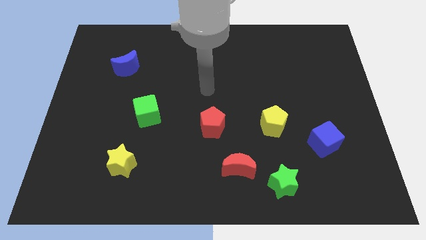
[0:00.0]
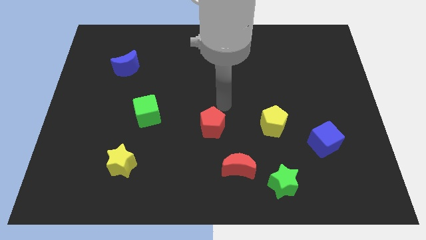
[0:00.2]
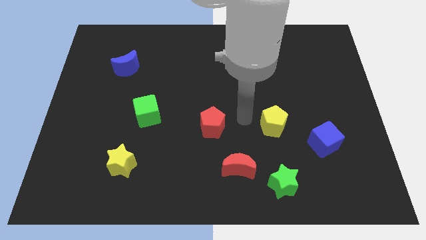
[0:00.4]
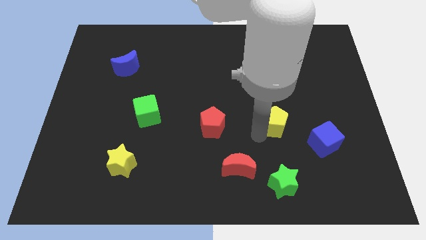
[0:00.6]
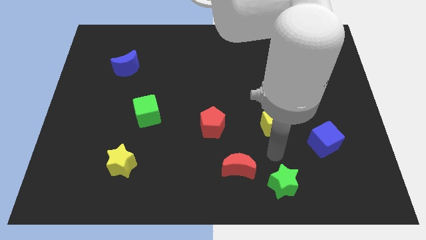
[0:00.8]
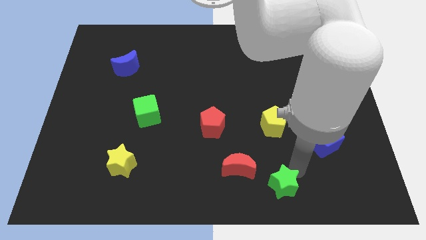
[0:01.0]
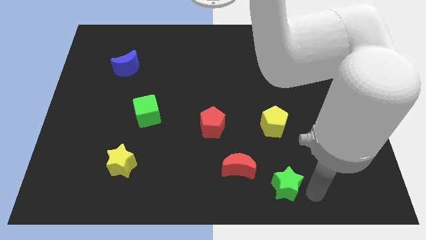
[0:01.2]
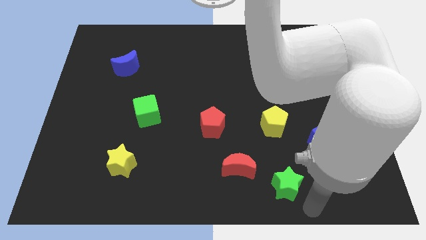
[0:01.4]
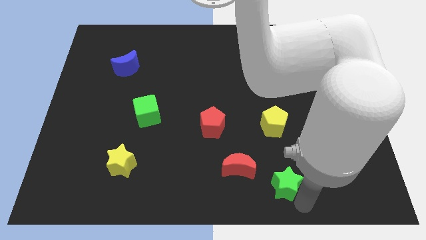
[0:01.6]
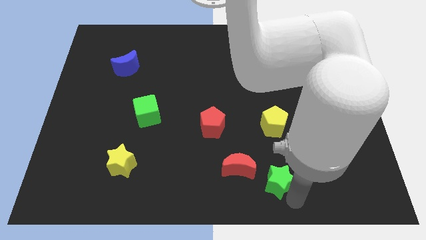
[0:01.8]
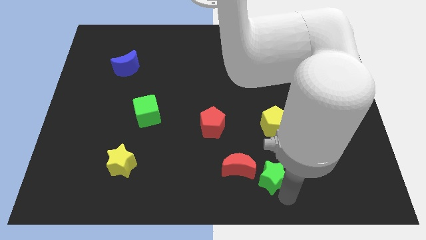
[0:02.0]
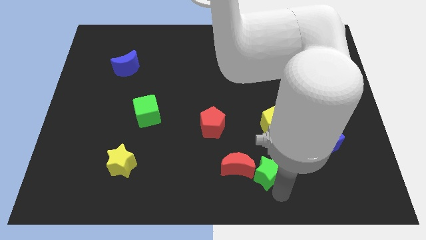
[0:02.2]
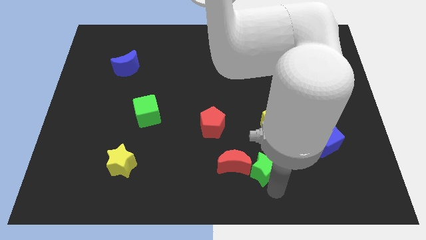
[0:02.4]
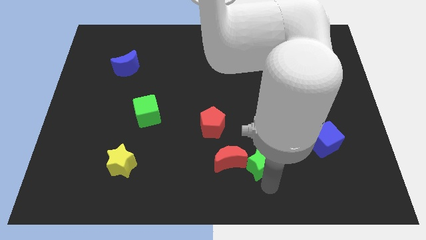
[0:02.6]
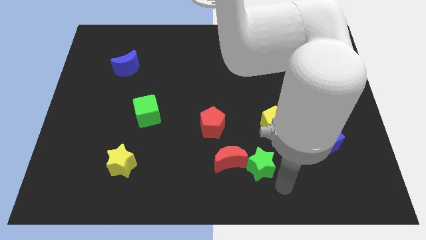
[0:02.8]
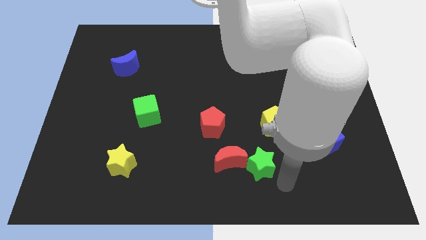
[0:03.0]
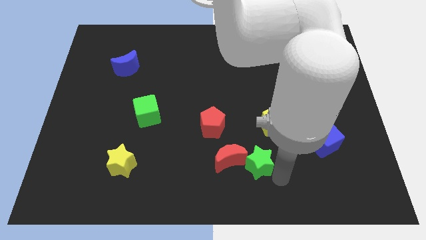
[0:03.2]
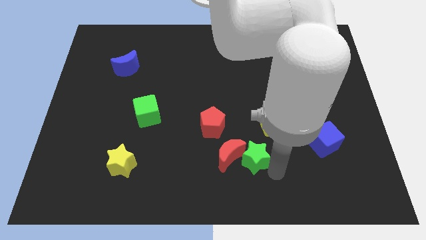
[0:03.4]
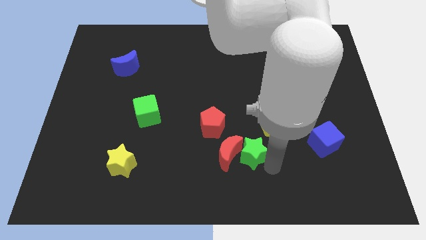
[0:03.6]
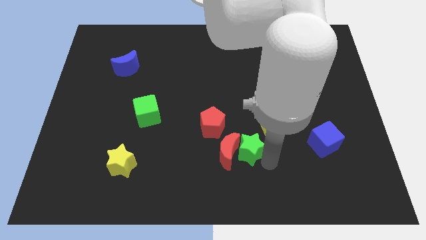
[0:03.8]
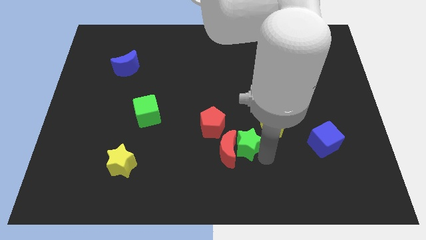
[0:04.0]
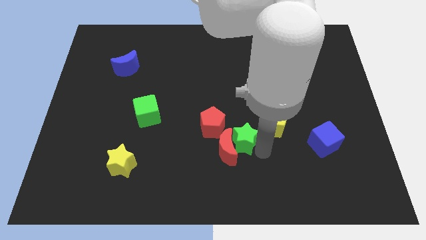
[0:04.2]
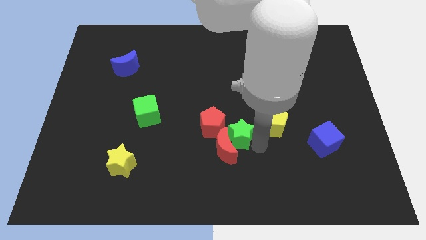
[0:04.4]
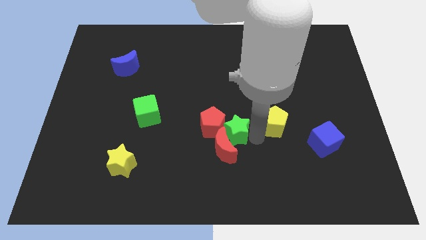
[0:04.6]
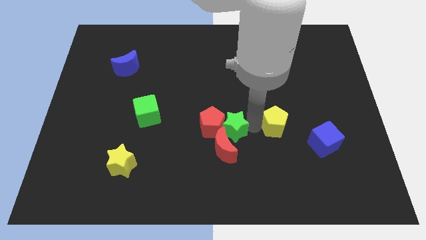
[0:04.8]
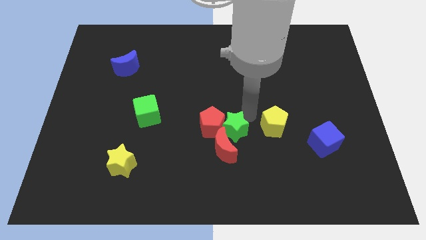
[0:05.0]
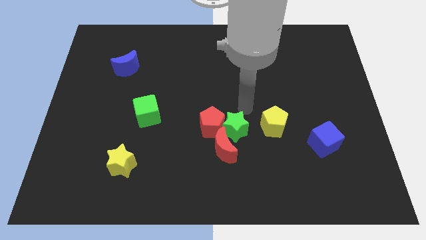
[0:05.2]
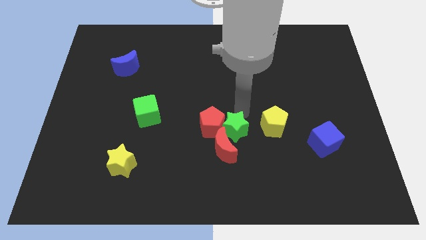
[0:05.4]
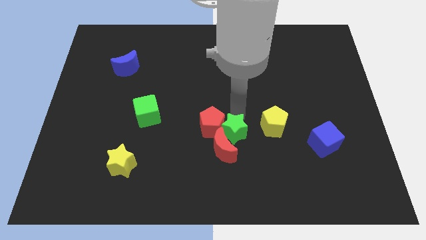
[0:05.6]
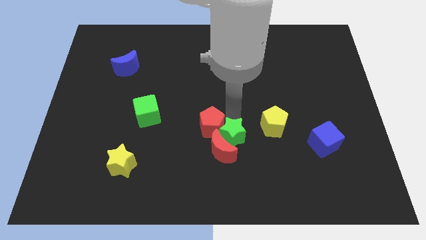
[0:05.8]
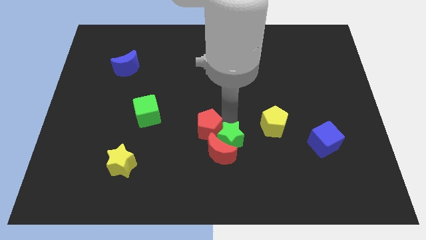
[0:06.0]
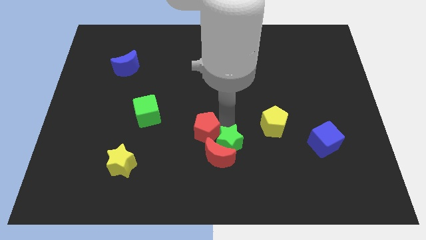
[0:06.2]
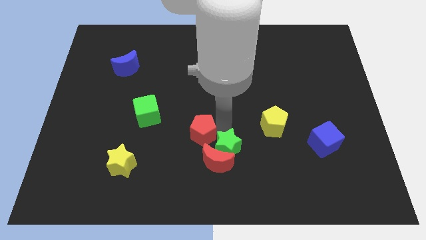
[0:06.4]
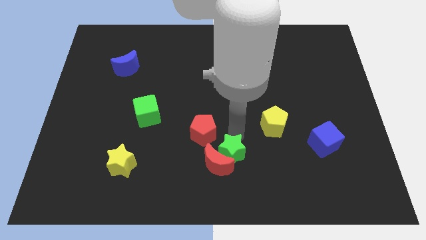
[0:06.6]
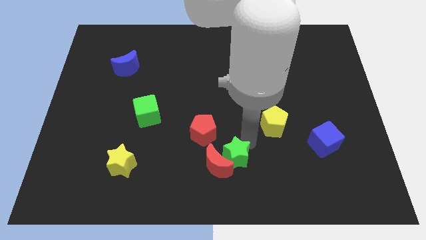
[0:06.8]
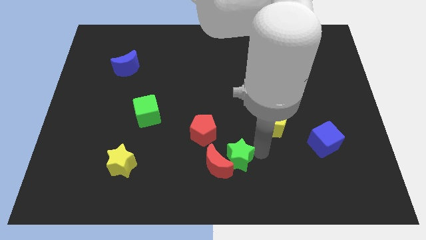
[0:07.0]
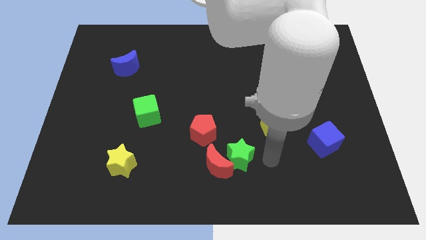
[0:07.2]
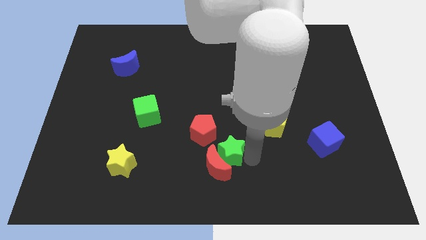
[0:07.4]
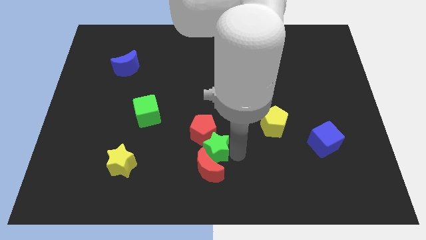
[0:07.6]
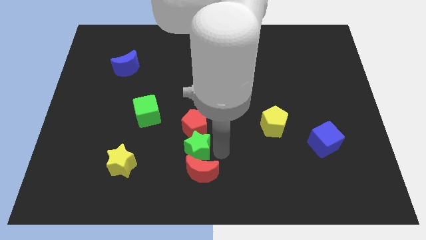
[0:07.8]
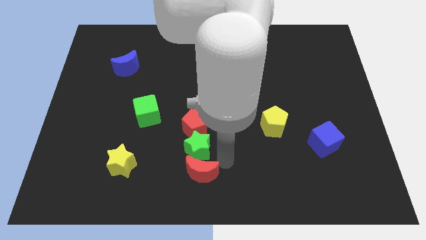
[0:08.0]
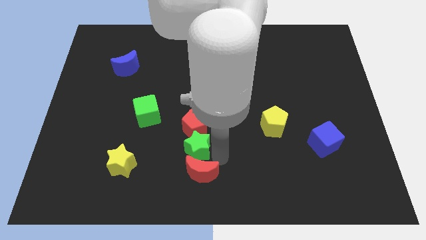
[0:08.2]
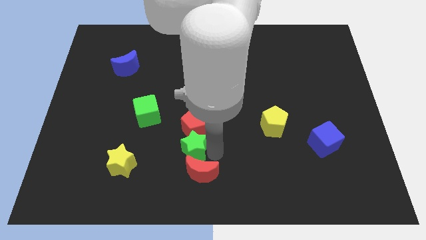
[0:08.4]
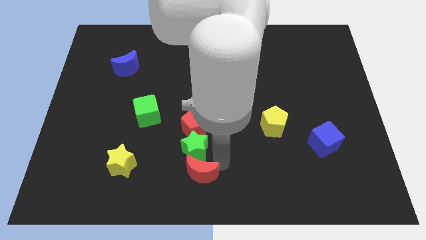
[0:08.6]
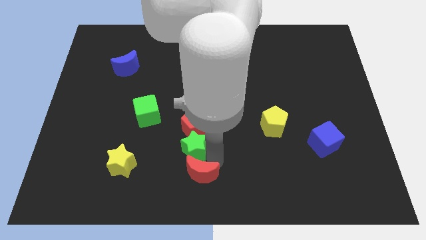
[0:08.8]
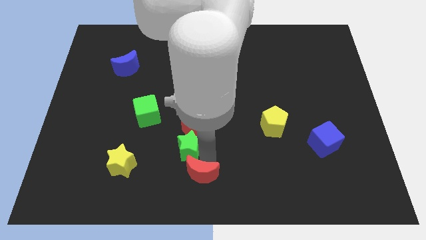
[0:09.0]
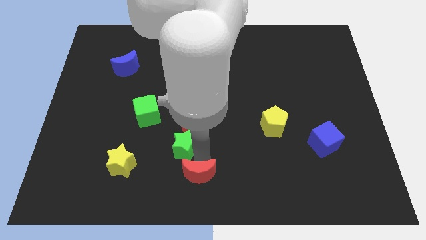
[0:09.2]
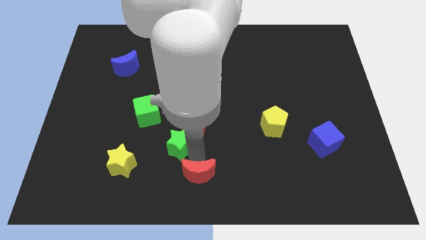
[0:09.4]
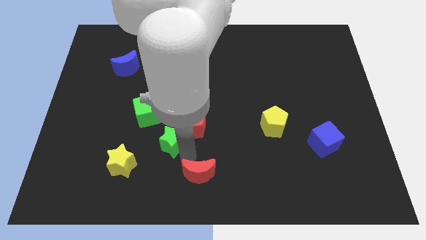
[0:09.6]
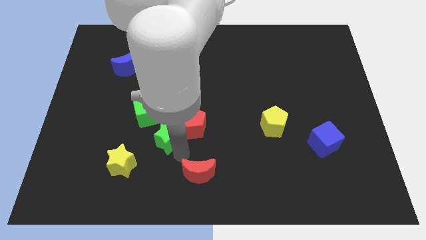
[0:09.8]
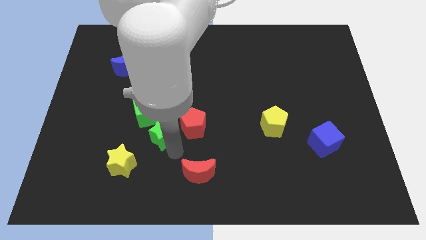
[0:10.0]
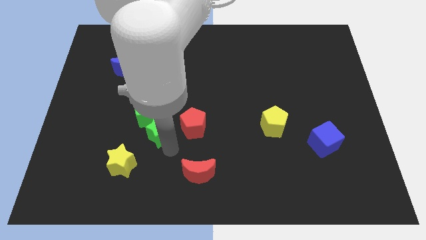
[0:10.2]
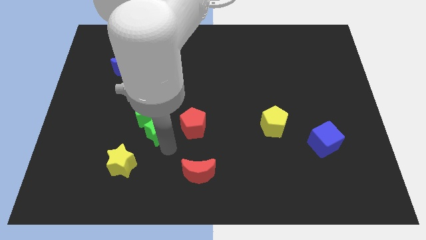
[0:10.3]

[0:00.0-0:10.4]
slide the green star next to the green cube

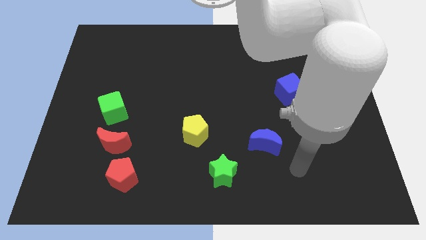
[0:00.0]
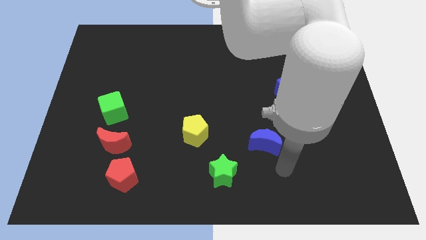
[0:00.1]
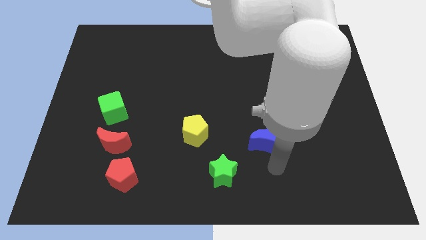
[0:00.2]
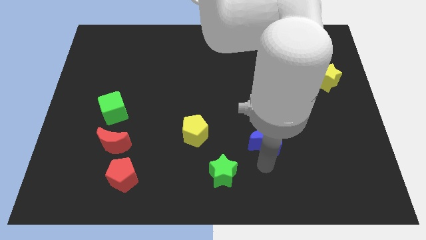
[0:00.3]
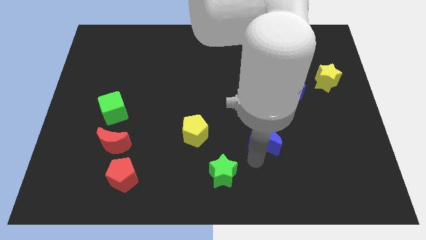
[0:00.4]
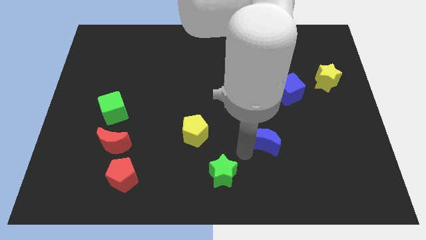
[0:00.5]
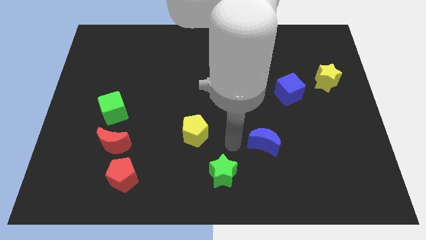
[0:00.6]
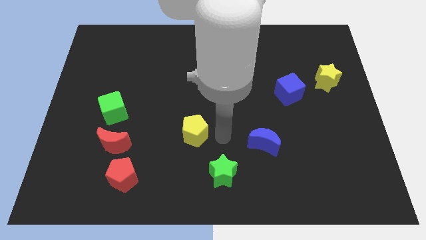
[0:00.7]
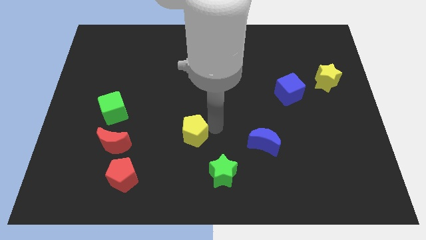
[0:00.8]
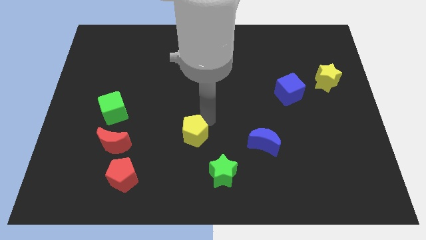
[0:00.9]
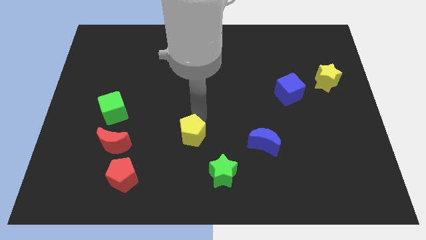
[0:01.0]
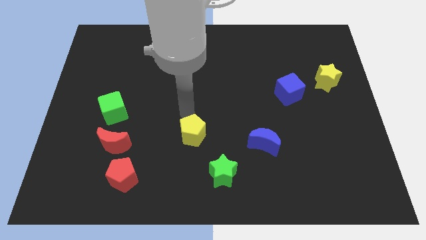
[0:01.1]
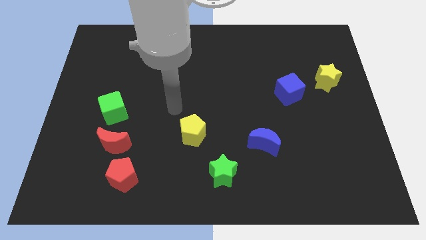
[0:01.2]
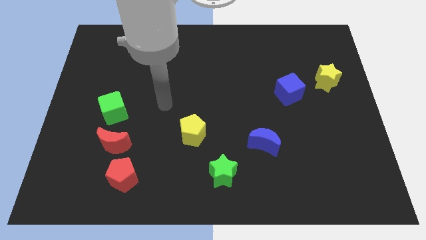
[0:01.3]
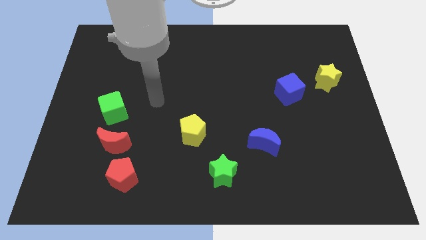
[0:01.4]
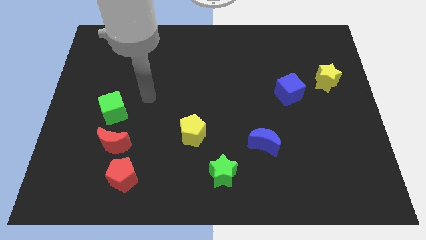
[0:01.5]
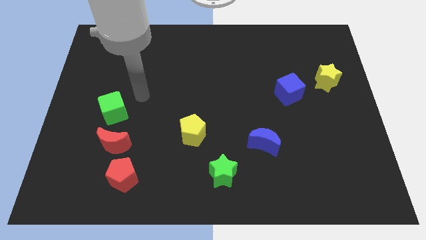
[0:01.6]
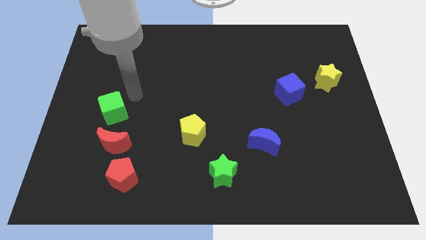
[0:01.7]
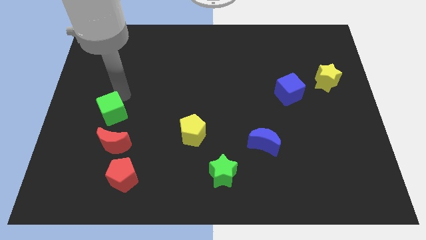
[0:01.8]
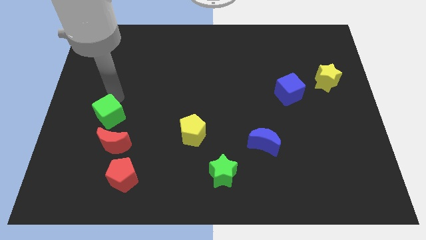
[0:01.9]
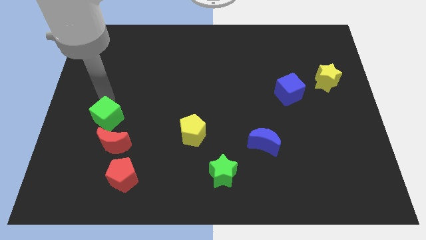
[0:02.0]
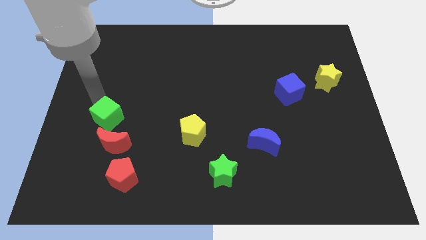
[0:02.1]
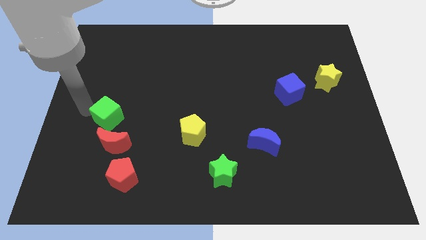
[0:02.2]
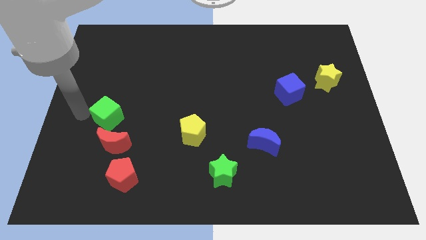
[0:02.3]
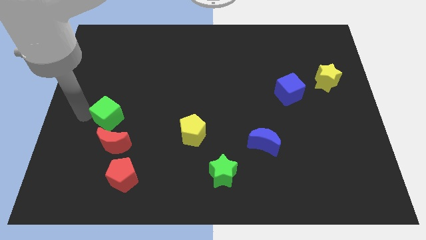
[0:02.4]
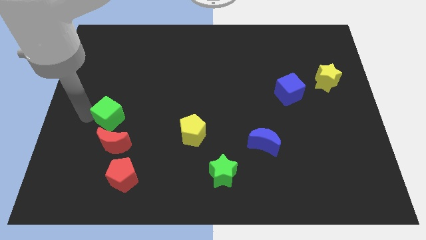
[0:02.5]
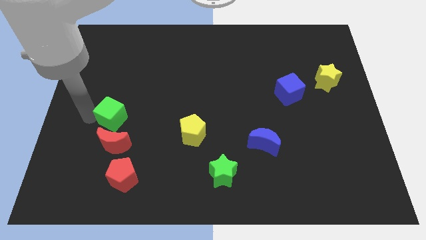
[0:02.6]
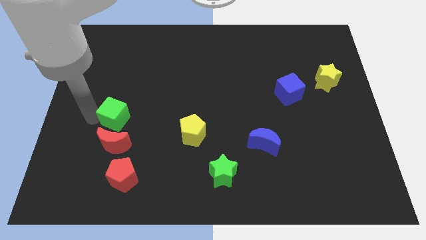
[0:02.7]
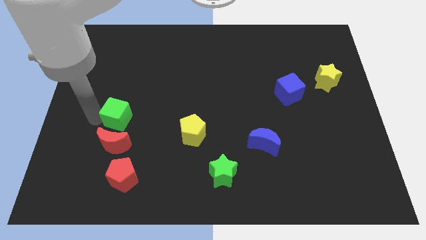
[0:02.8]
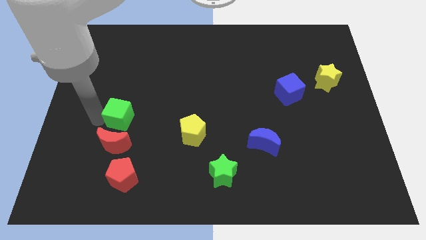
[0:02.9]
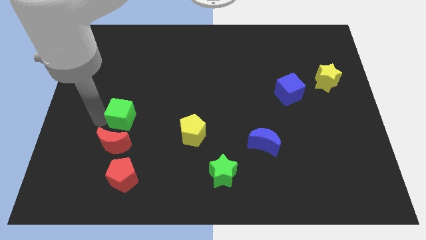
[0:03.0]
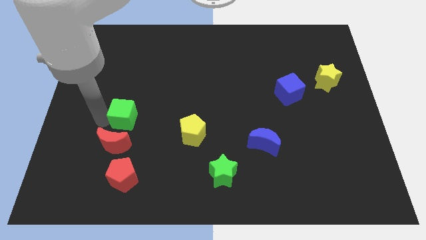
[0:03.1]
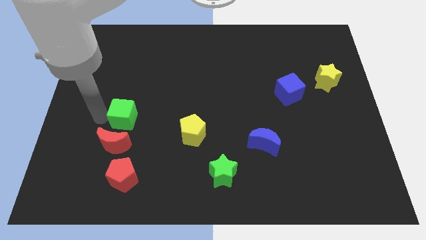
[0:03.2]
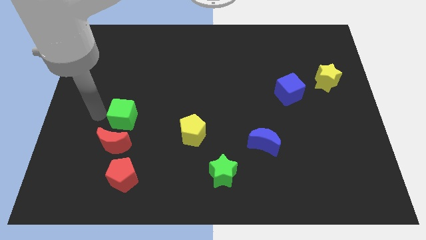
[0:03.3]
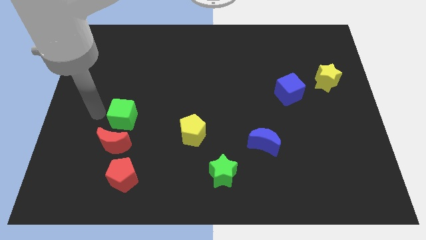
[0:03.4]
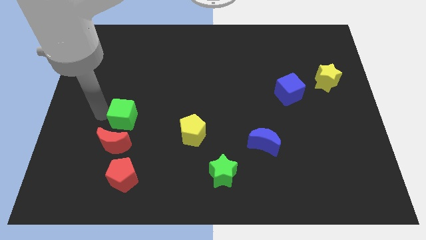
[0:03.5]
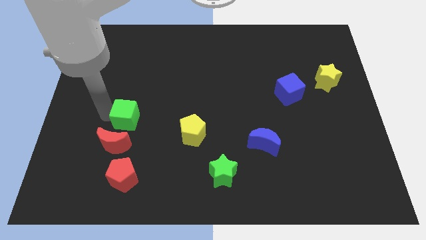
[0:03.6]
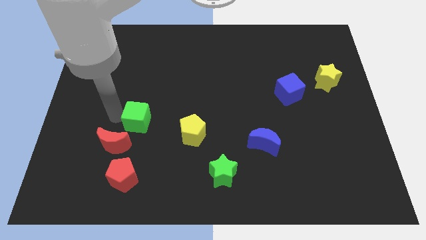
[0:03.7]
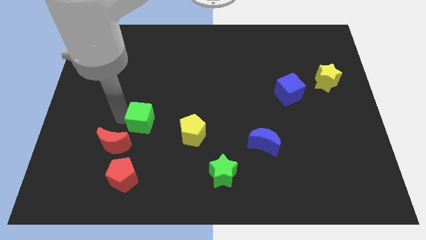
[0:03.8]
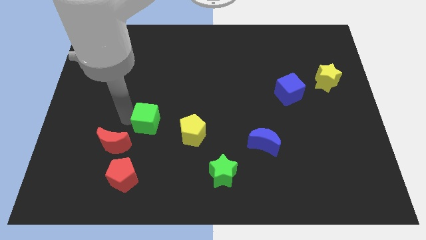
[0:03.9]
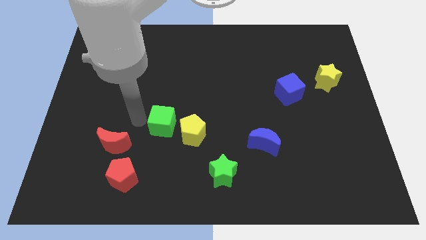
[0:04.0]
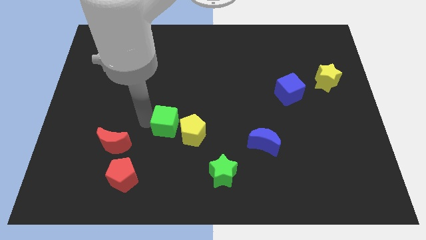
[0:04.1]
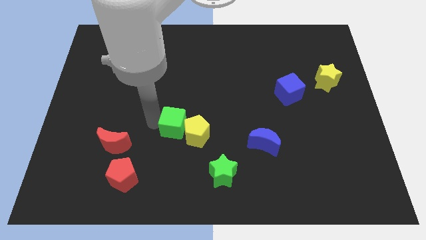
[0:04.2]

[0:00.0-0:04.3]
slide the green cube next to the yellow pentagon
